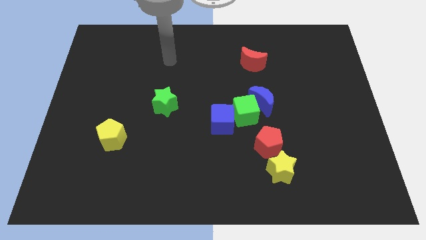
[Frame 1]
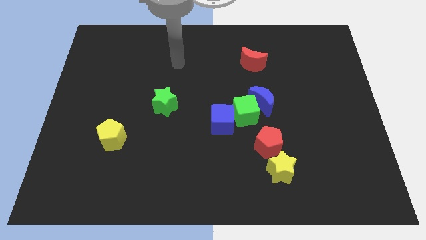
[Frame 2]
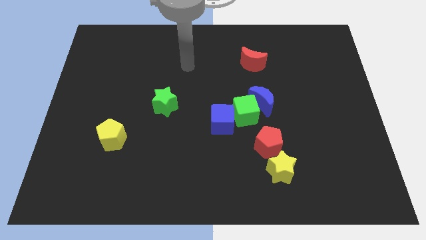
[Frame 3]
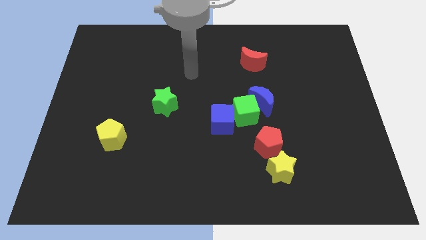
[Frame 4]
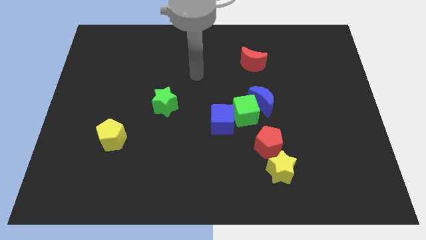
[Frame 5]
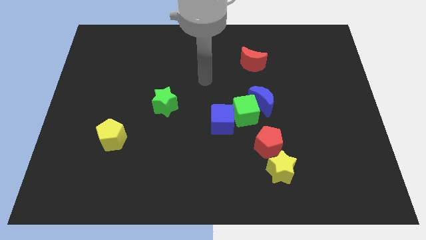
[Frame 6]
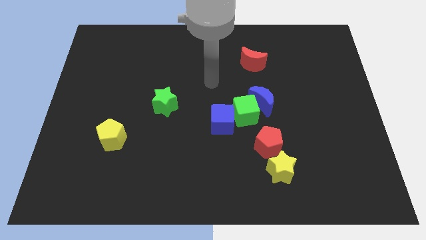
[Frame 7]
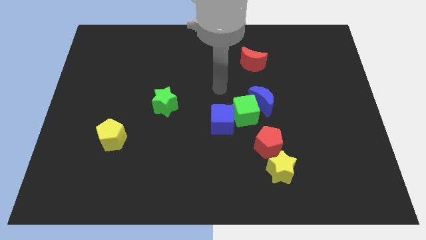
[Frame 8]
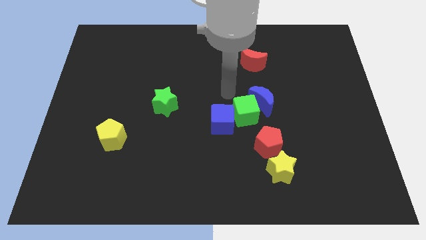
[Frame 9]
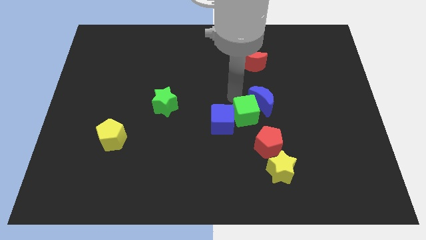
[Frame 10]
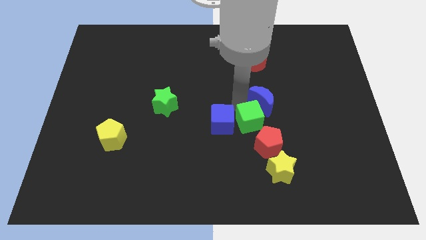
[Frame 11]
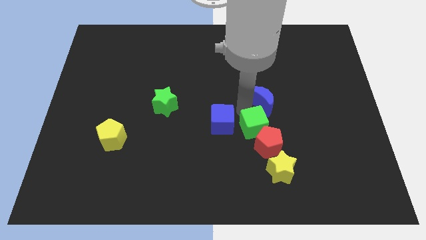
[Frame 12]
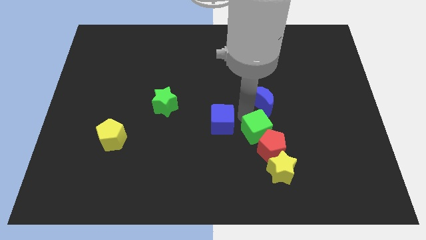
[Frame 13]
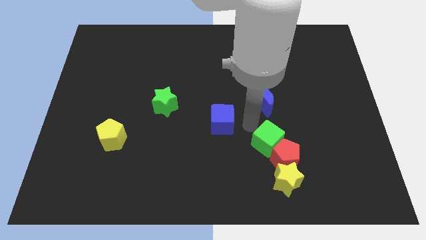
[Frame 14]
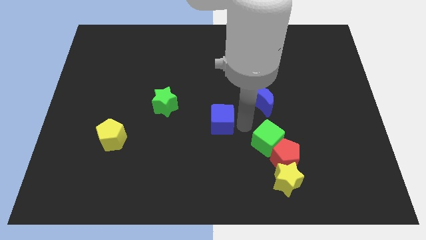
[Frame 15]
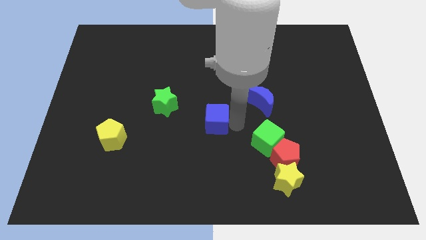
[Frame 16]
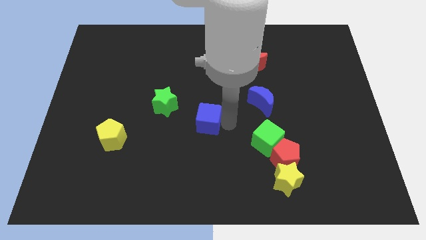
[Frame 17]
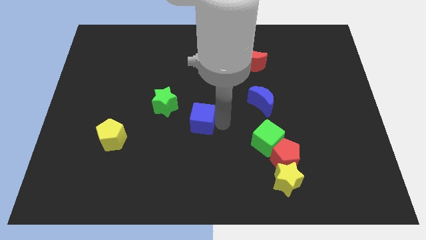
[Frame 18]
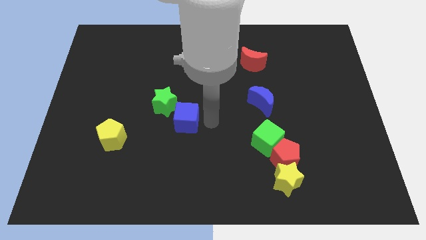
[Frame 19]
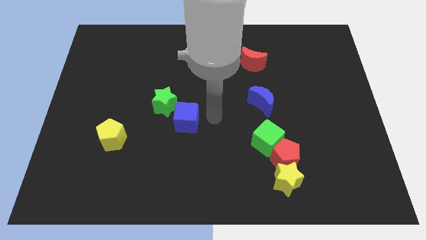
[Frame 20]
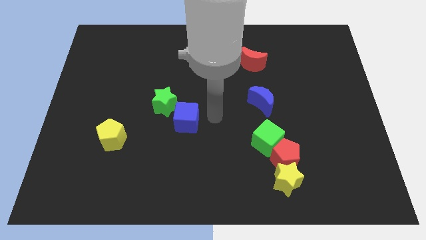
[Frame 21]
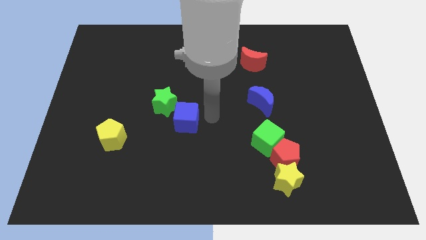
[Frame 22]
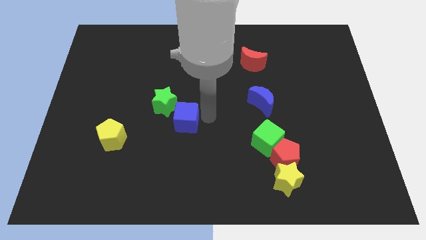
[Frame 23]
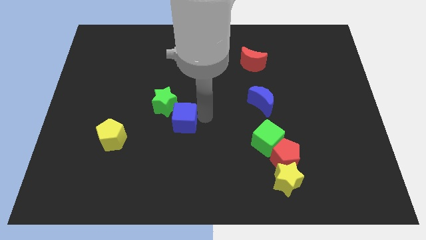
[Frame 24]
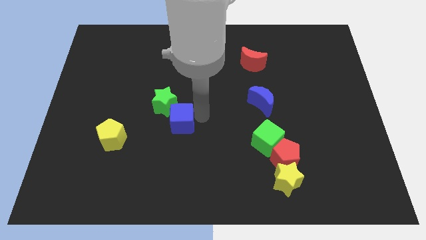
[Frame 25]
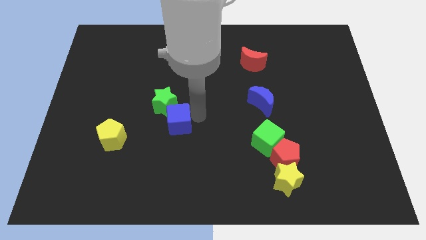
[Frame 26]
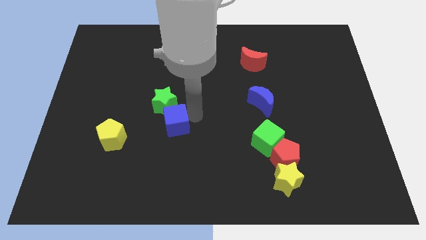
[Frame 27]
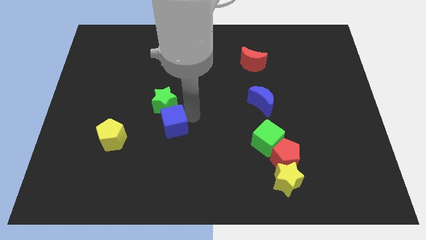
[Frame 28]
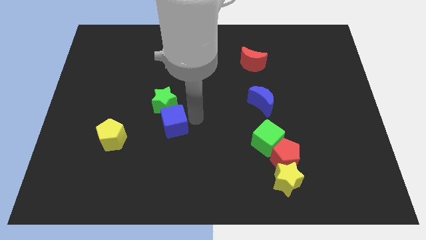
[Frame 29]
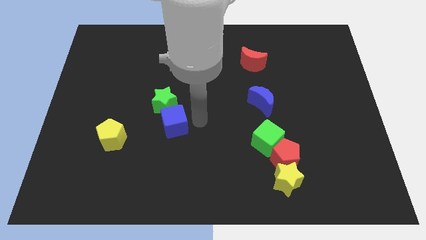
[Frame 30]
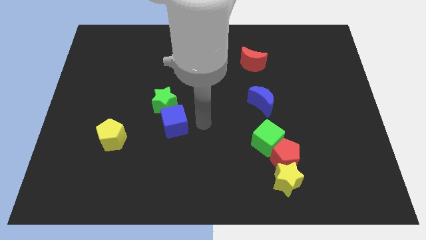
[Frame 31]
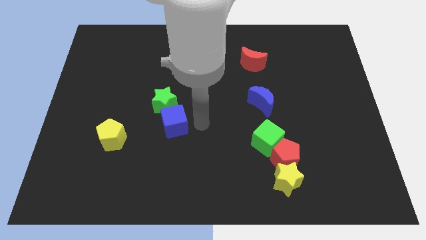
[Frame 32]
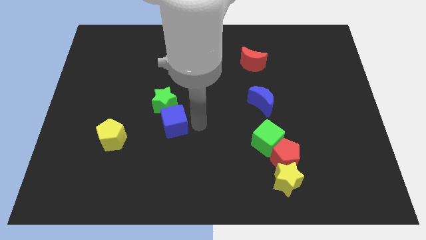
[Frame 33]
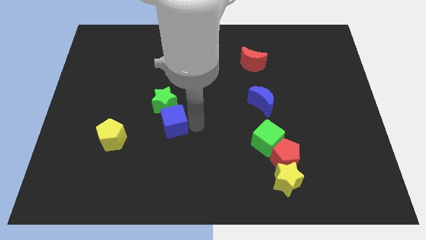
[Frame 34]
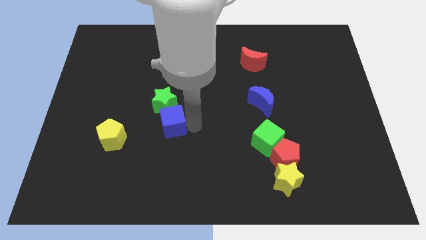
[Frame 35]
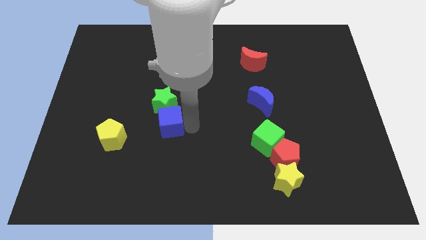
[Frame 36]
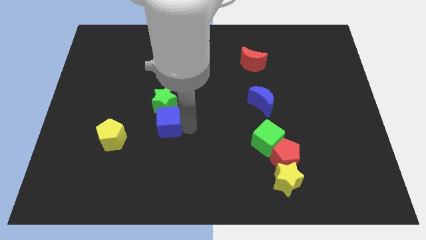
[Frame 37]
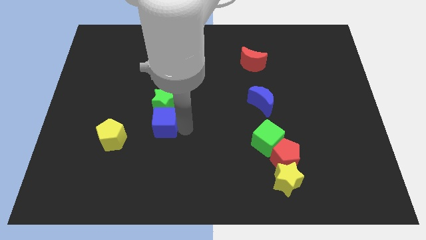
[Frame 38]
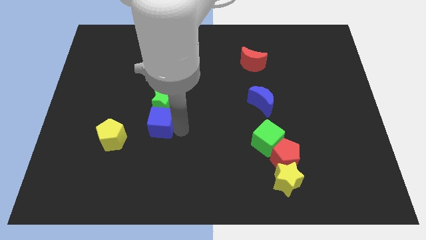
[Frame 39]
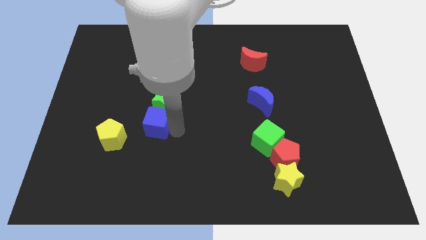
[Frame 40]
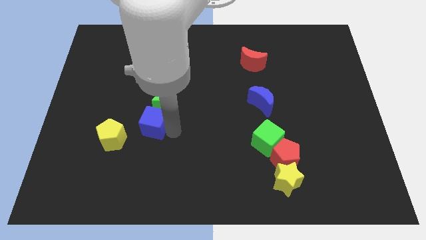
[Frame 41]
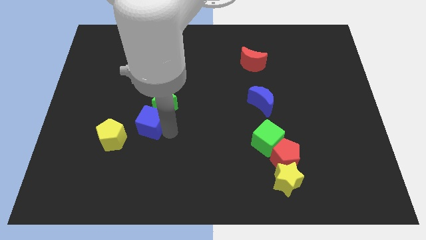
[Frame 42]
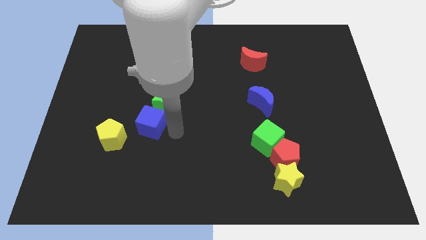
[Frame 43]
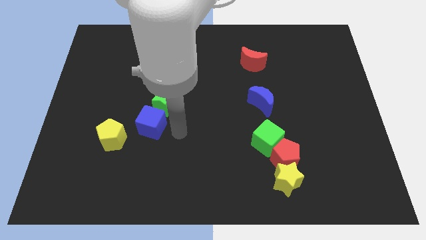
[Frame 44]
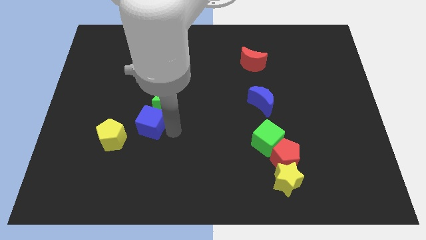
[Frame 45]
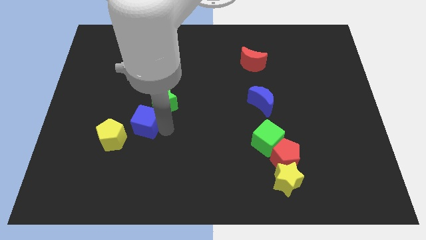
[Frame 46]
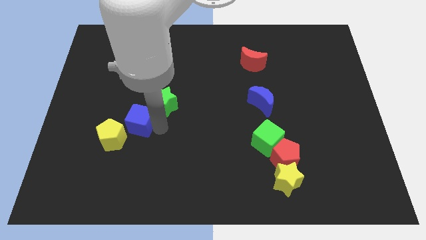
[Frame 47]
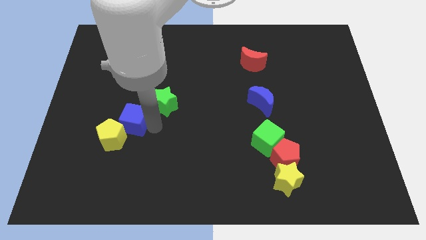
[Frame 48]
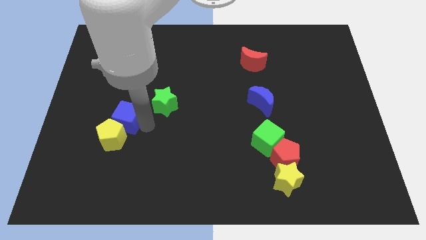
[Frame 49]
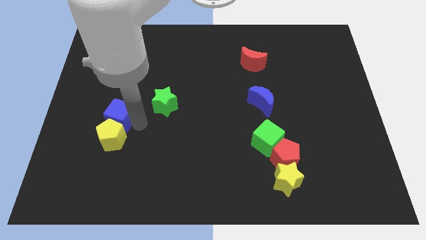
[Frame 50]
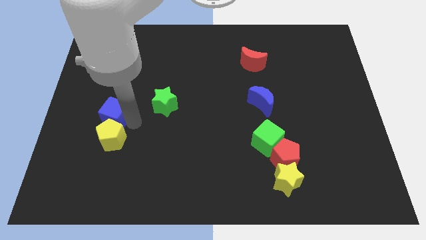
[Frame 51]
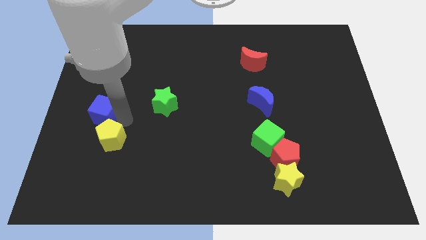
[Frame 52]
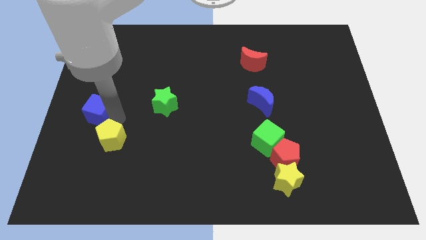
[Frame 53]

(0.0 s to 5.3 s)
slide the blue cube to the left side of the board

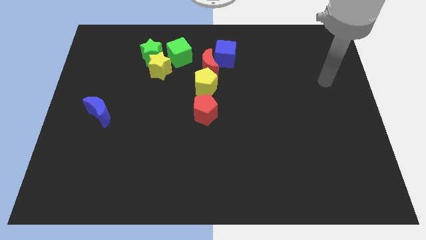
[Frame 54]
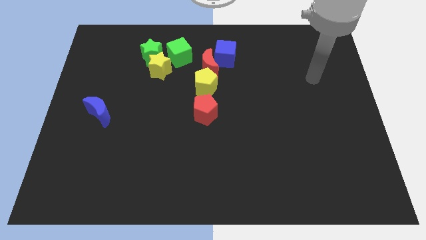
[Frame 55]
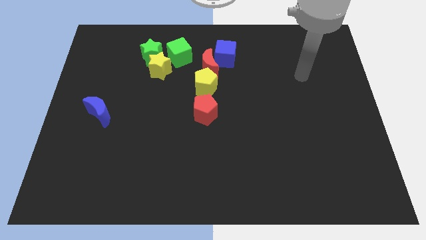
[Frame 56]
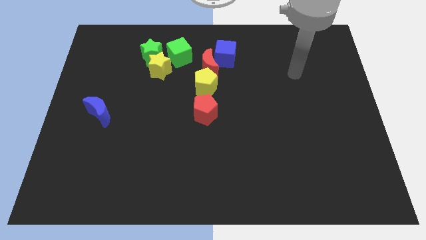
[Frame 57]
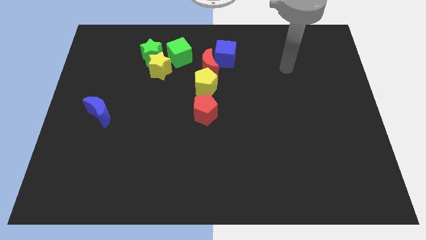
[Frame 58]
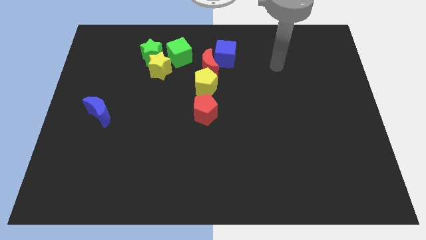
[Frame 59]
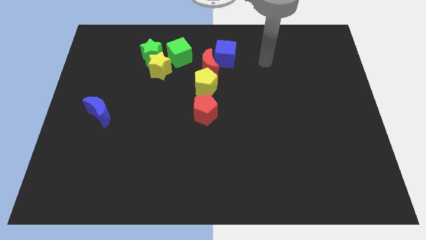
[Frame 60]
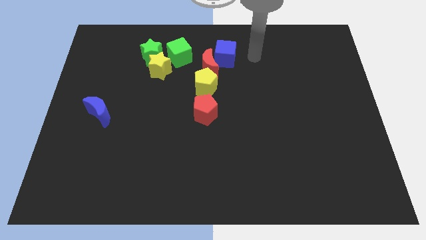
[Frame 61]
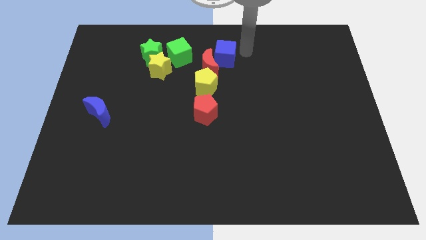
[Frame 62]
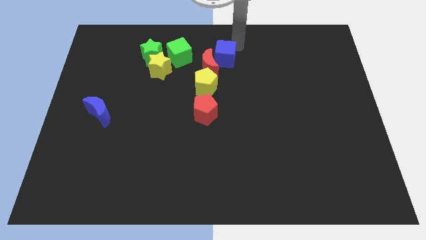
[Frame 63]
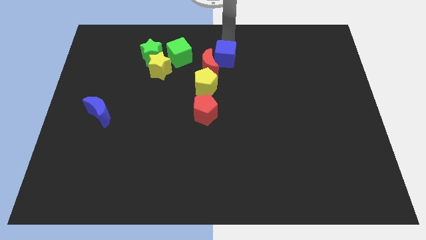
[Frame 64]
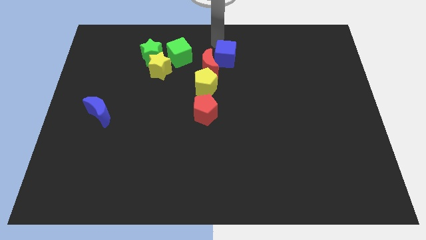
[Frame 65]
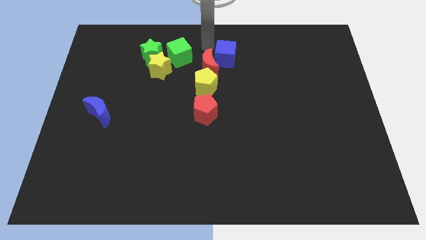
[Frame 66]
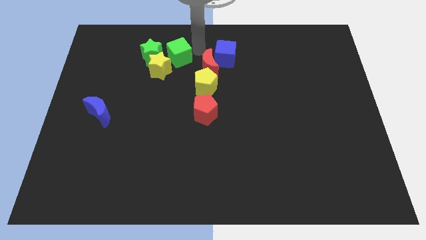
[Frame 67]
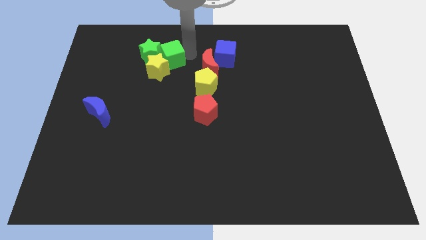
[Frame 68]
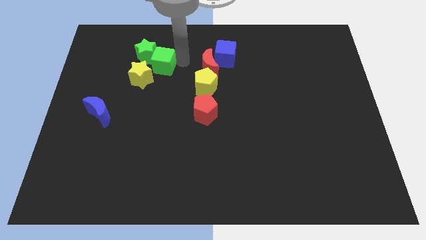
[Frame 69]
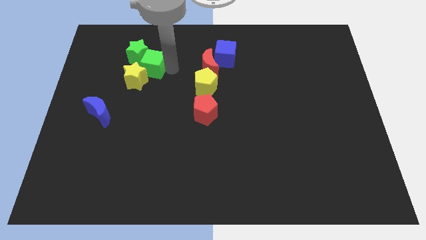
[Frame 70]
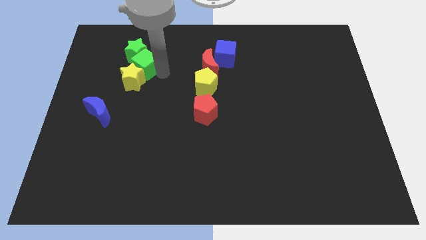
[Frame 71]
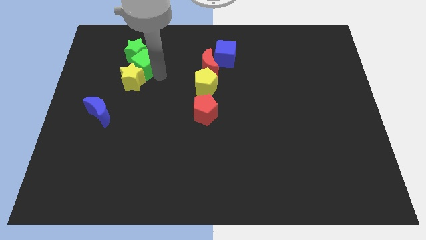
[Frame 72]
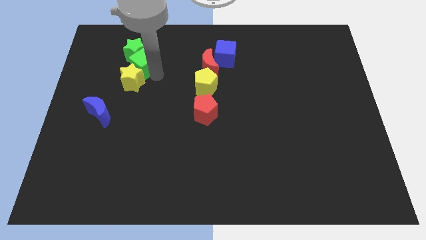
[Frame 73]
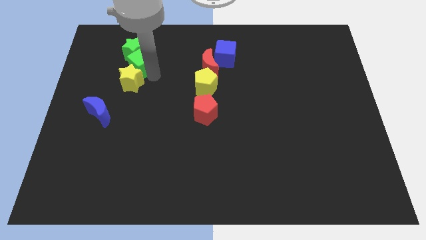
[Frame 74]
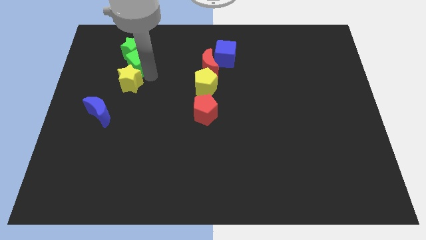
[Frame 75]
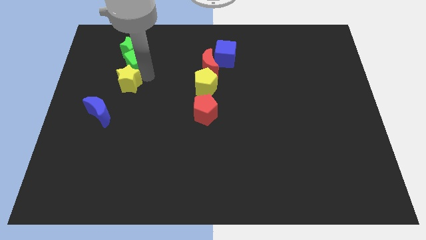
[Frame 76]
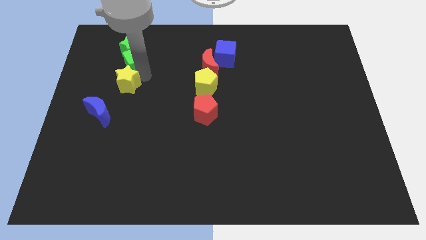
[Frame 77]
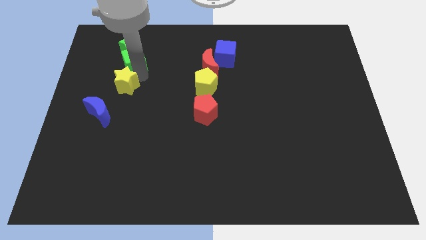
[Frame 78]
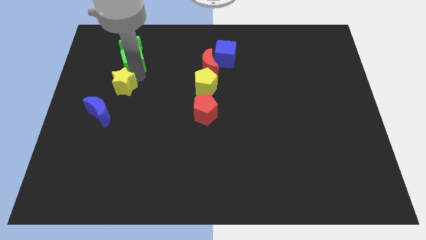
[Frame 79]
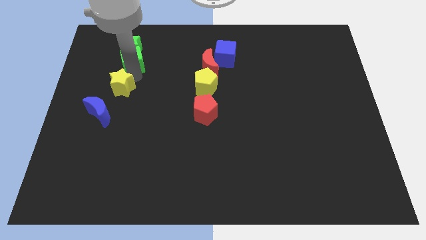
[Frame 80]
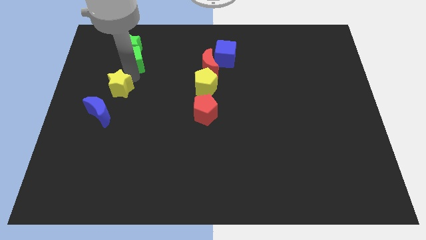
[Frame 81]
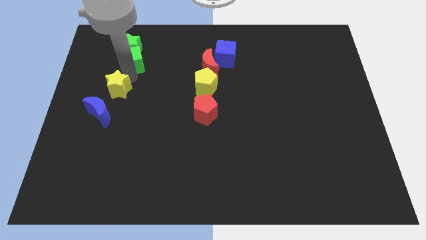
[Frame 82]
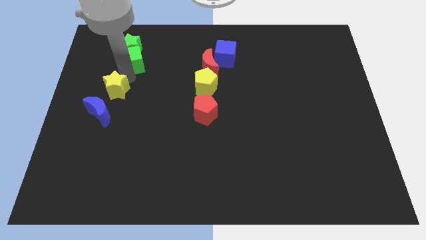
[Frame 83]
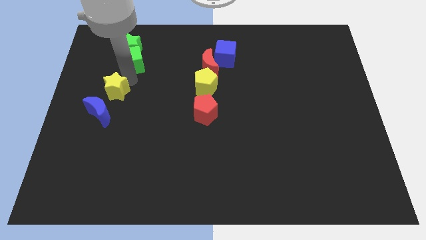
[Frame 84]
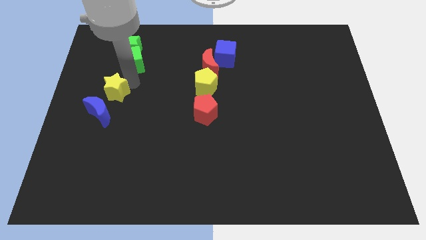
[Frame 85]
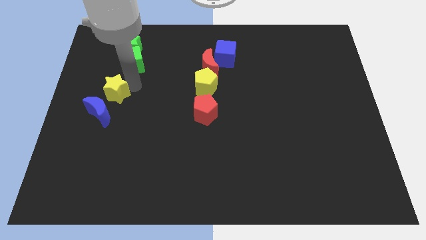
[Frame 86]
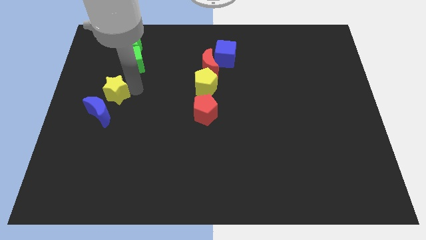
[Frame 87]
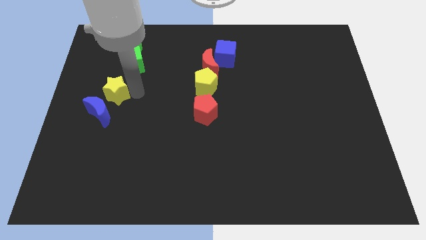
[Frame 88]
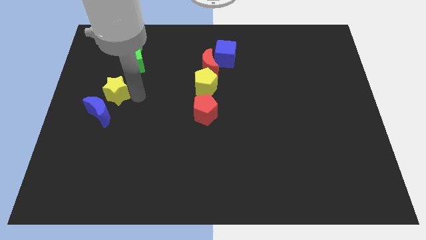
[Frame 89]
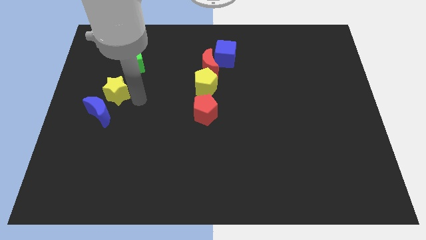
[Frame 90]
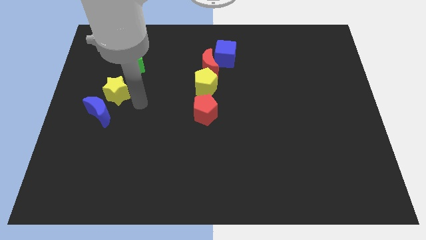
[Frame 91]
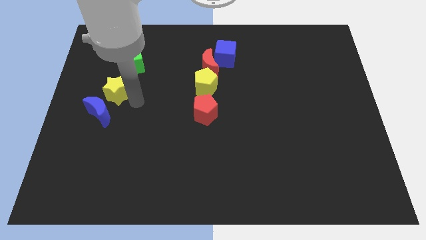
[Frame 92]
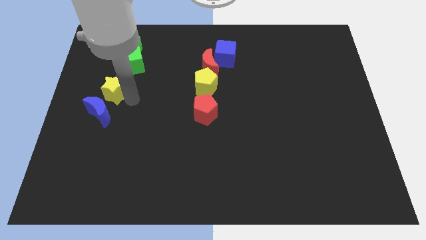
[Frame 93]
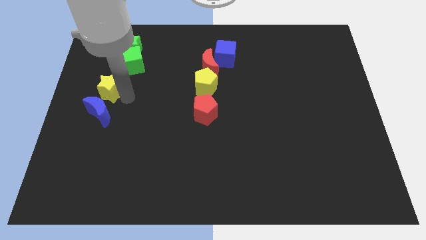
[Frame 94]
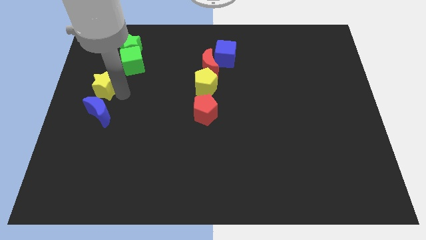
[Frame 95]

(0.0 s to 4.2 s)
push the yellow star to the left side of the board
